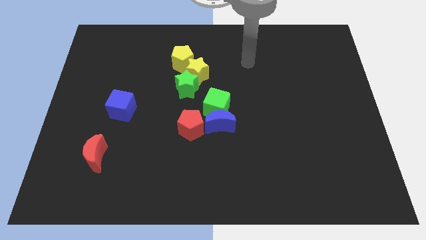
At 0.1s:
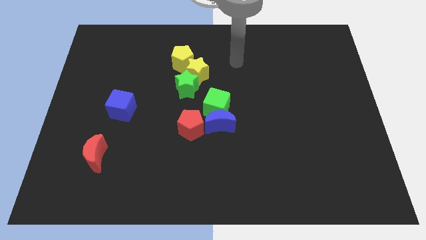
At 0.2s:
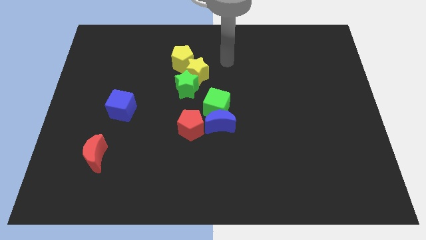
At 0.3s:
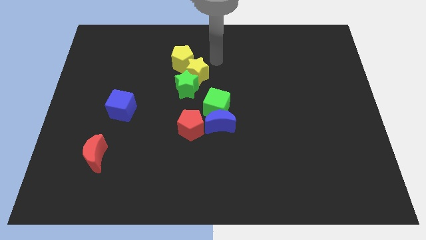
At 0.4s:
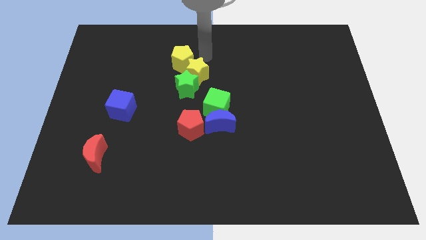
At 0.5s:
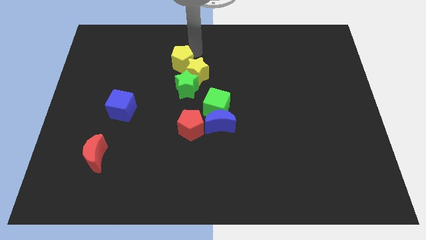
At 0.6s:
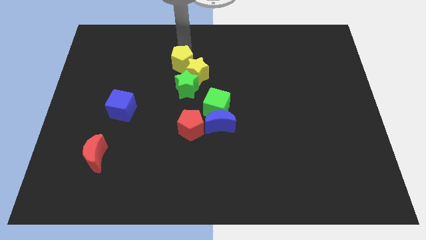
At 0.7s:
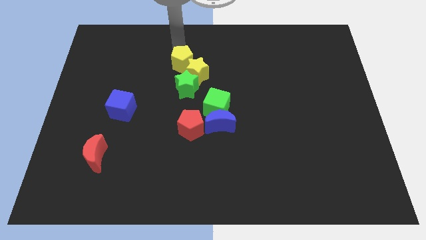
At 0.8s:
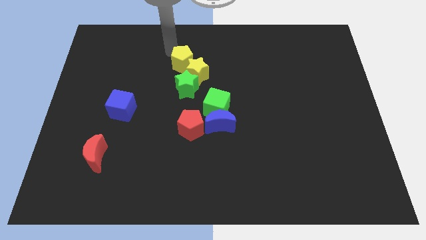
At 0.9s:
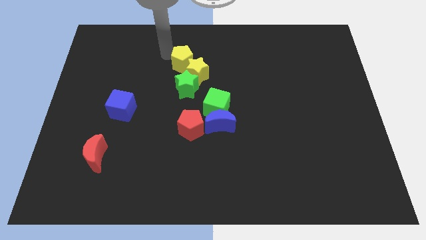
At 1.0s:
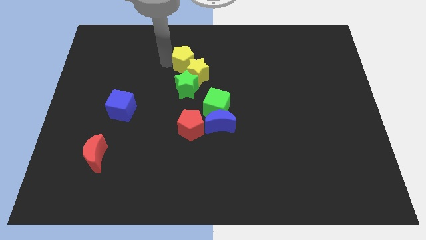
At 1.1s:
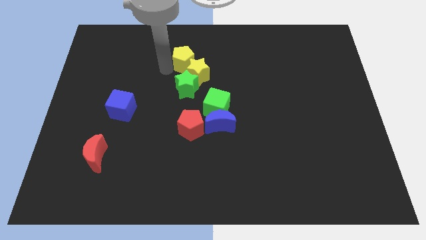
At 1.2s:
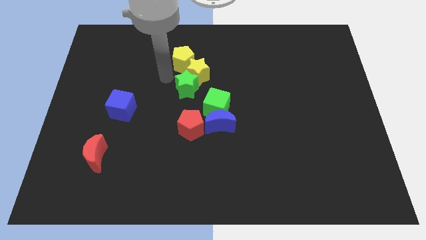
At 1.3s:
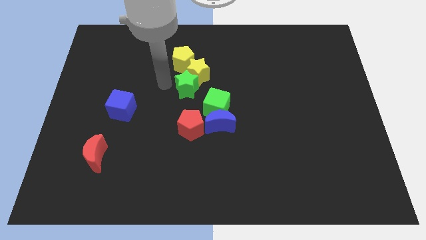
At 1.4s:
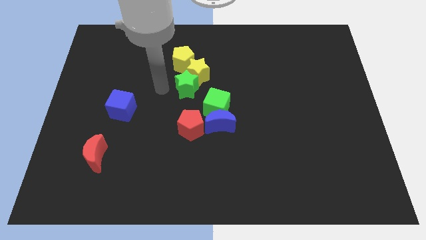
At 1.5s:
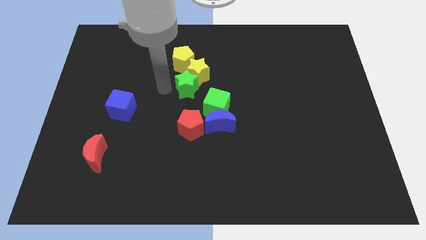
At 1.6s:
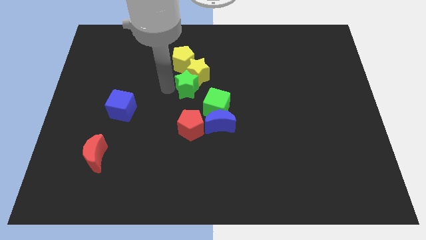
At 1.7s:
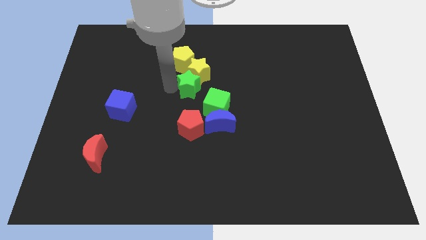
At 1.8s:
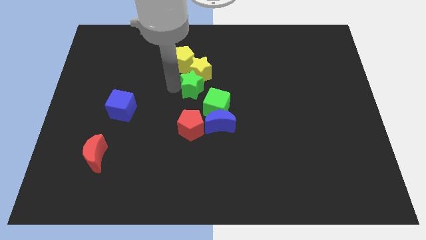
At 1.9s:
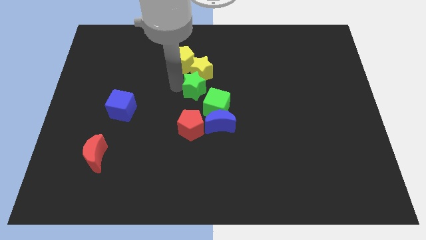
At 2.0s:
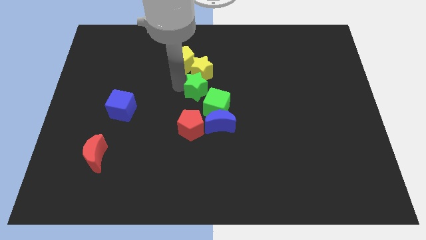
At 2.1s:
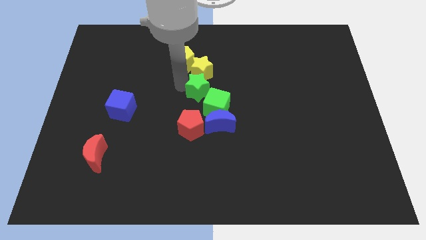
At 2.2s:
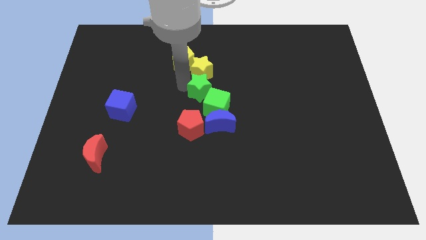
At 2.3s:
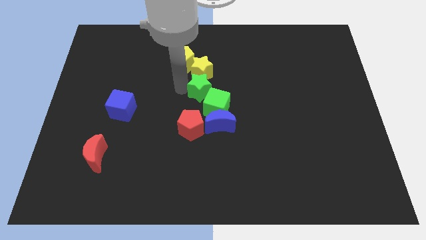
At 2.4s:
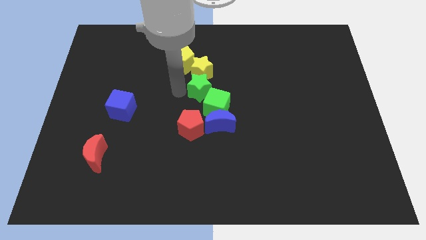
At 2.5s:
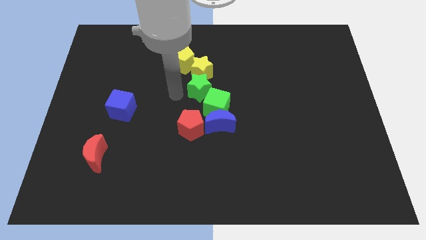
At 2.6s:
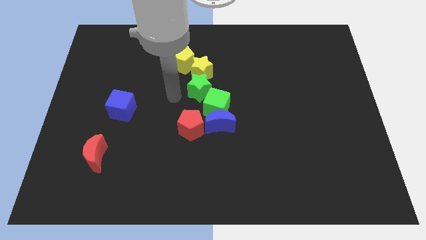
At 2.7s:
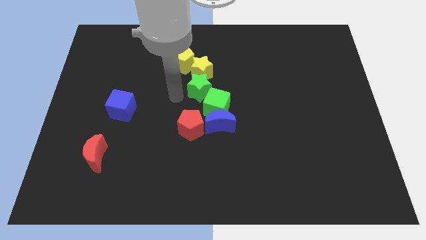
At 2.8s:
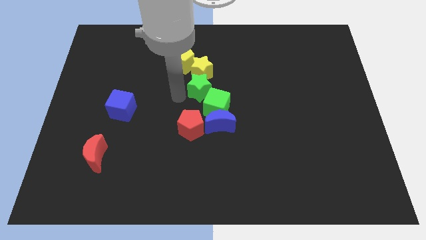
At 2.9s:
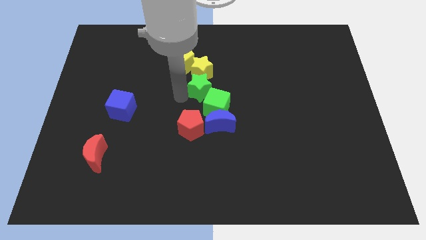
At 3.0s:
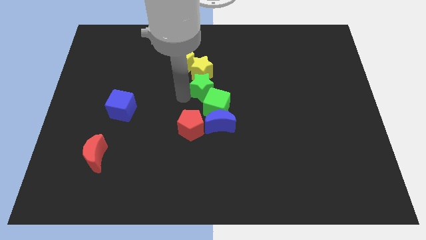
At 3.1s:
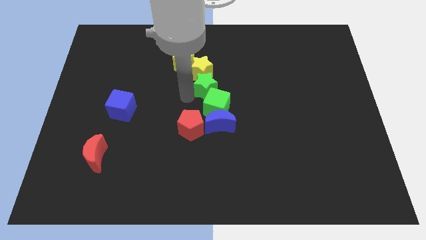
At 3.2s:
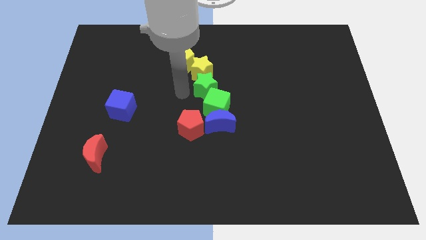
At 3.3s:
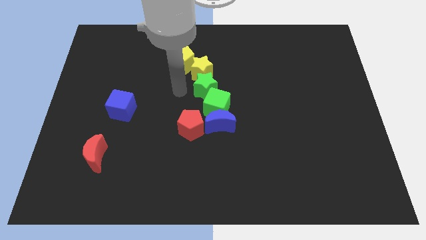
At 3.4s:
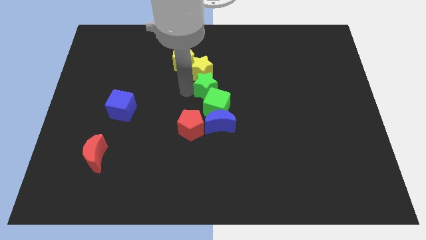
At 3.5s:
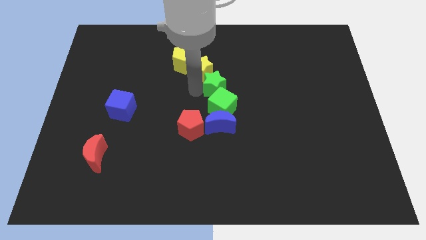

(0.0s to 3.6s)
move the green star a bit right

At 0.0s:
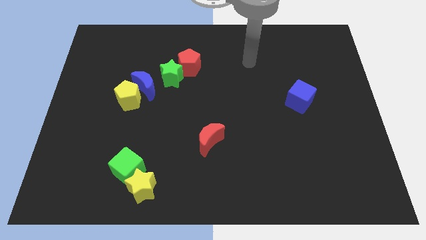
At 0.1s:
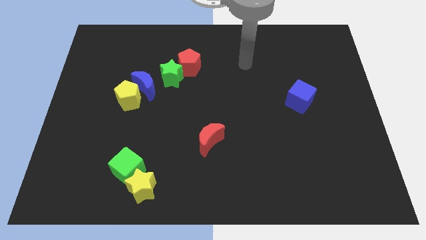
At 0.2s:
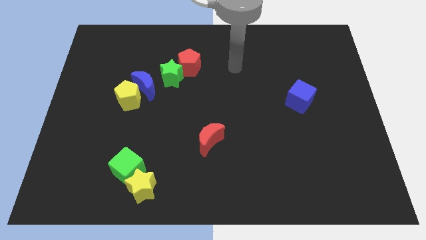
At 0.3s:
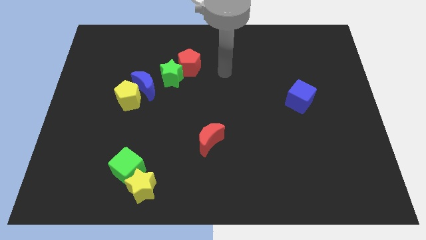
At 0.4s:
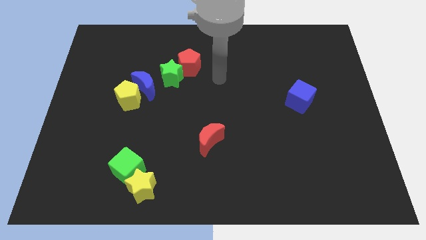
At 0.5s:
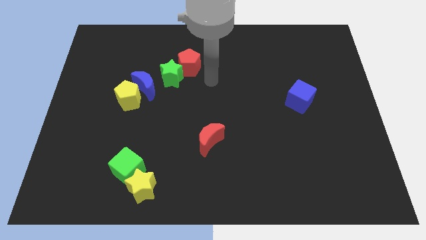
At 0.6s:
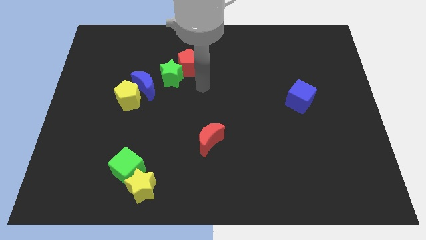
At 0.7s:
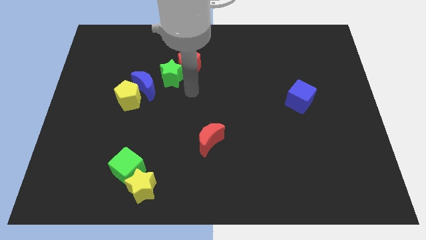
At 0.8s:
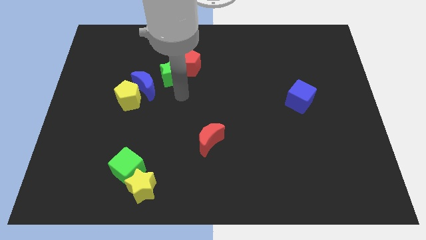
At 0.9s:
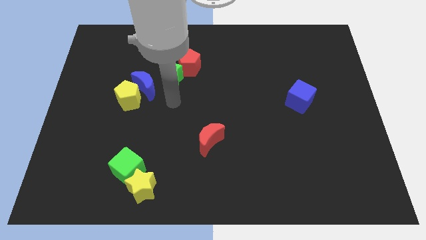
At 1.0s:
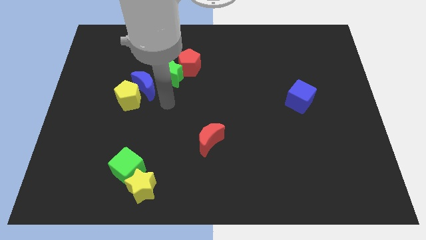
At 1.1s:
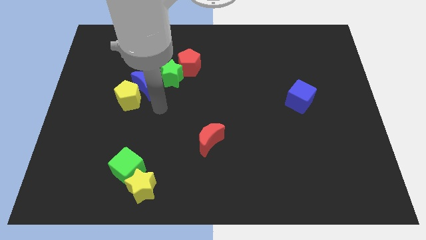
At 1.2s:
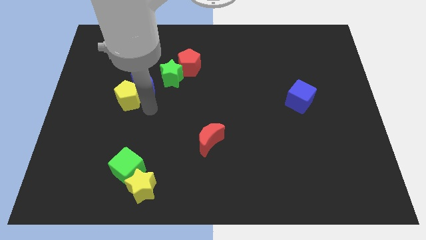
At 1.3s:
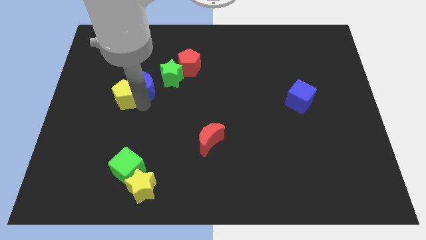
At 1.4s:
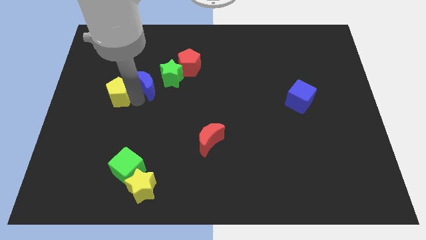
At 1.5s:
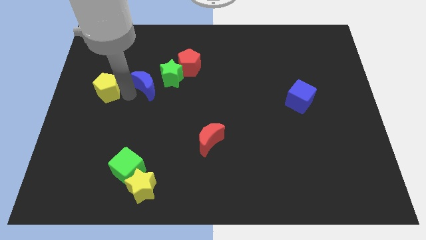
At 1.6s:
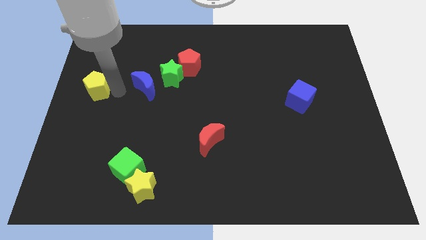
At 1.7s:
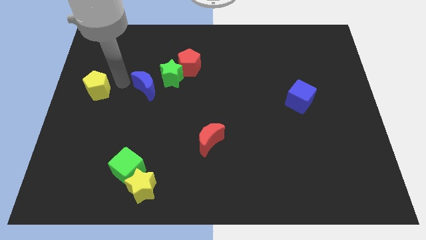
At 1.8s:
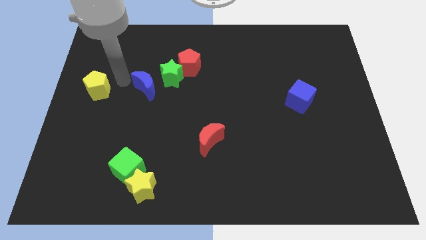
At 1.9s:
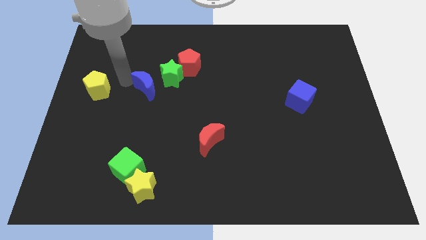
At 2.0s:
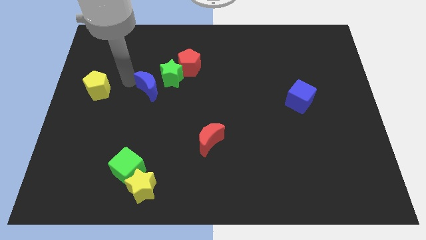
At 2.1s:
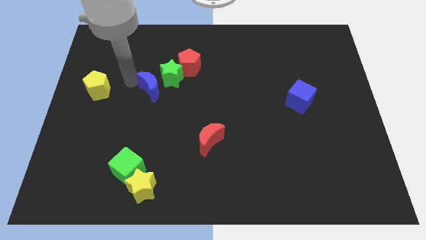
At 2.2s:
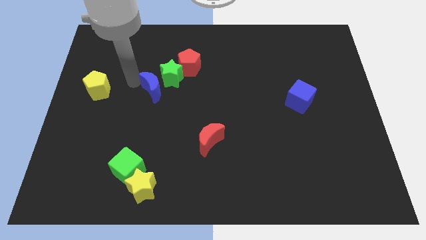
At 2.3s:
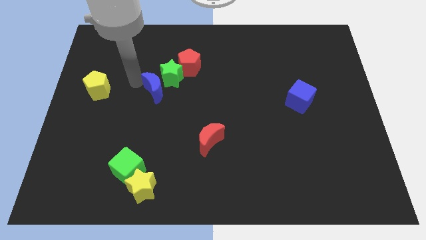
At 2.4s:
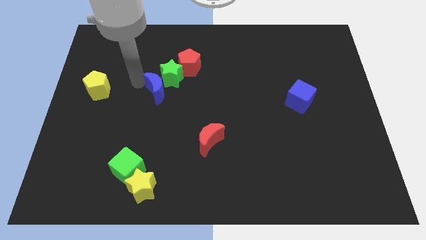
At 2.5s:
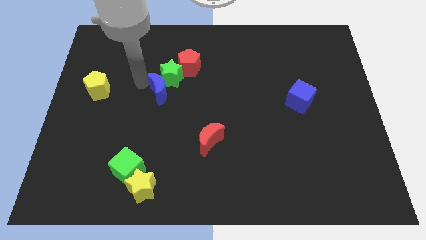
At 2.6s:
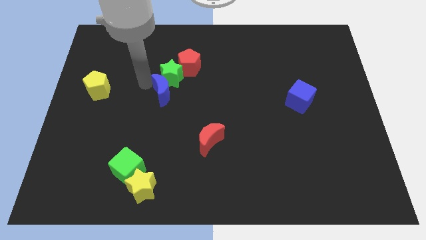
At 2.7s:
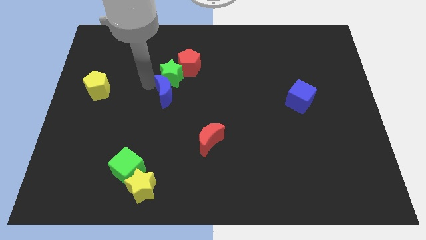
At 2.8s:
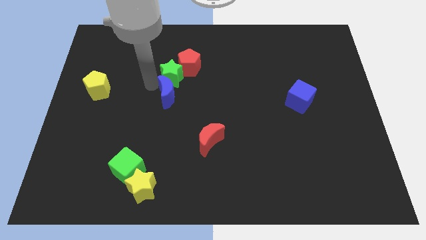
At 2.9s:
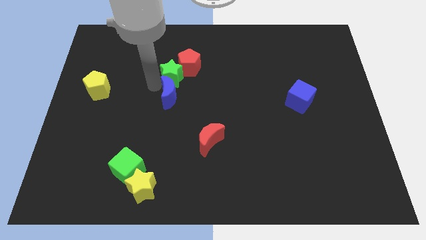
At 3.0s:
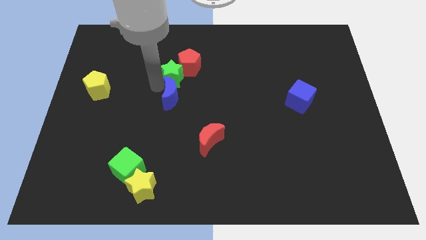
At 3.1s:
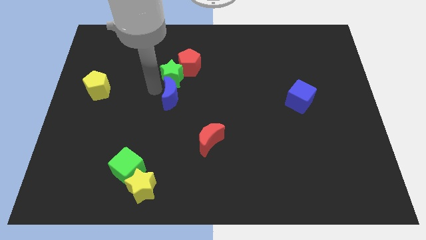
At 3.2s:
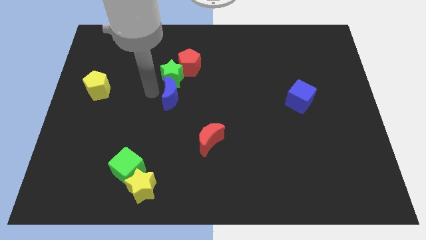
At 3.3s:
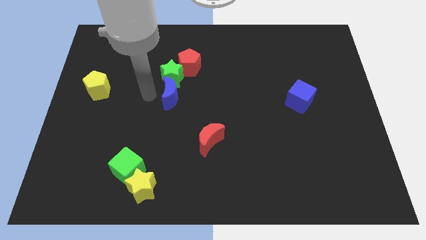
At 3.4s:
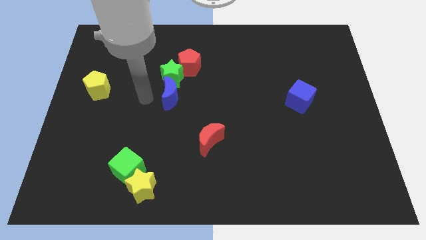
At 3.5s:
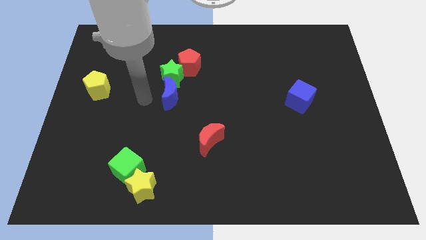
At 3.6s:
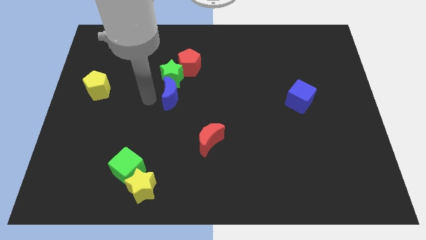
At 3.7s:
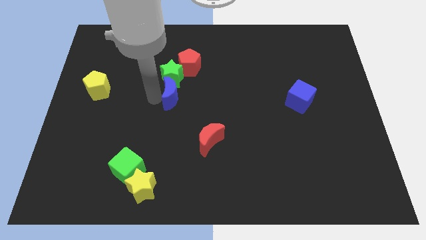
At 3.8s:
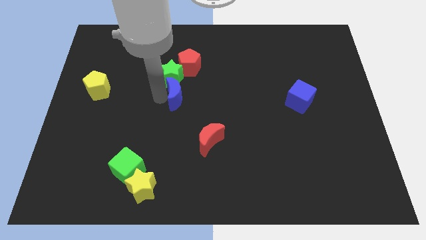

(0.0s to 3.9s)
slide the blue moon to the right a little

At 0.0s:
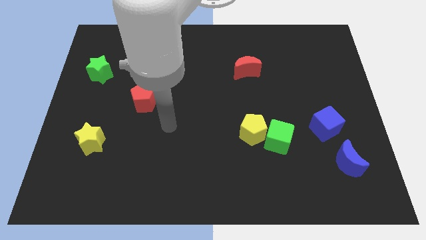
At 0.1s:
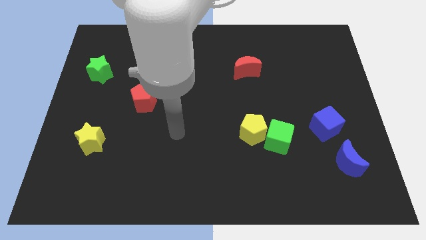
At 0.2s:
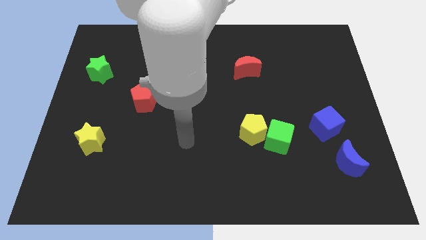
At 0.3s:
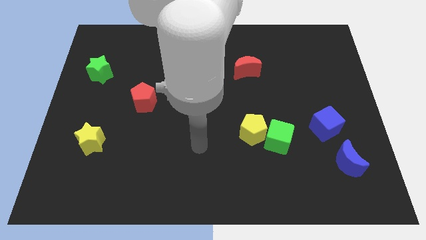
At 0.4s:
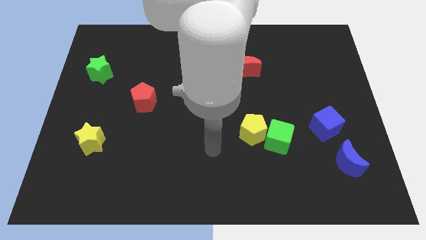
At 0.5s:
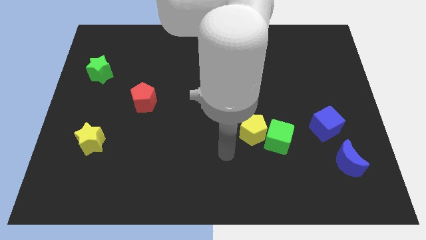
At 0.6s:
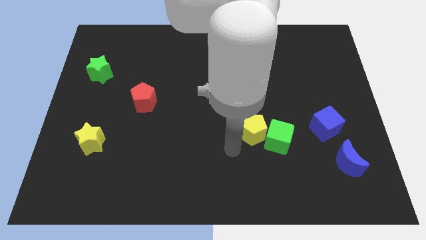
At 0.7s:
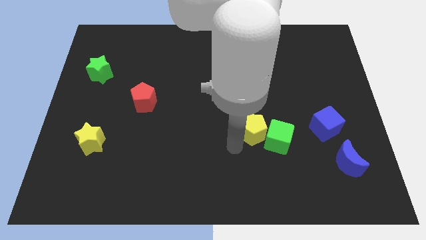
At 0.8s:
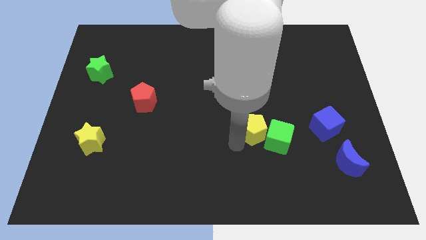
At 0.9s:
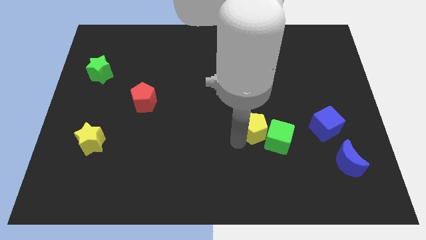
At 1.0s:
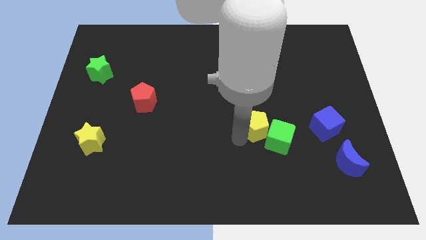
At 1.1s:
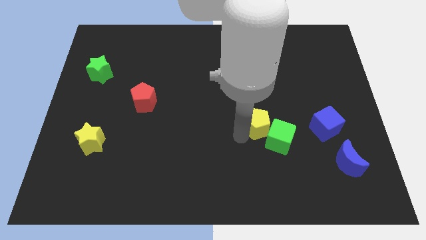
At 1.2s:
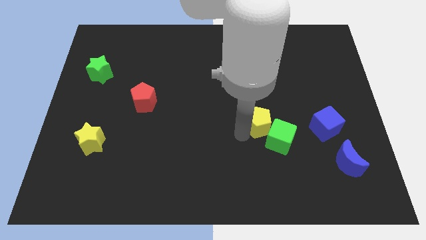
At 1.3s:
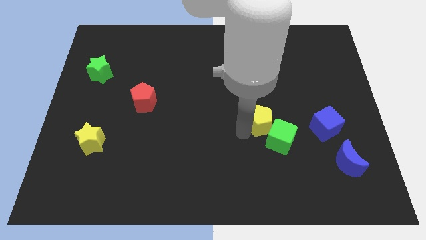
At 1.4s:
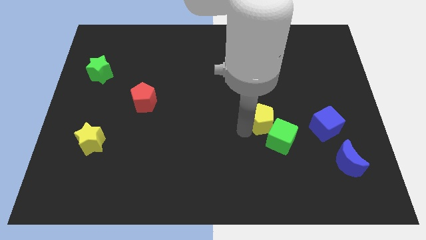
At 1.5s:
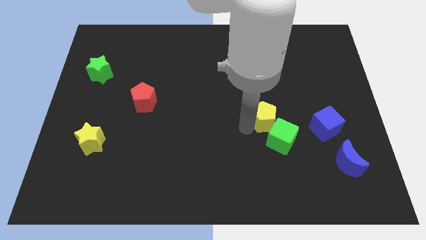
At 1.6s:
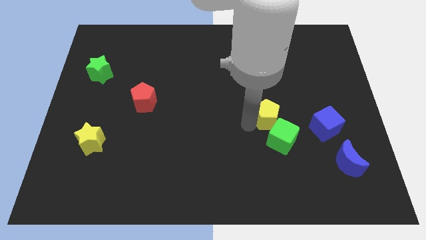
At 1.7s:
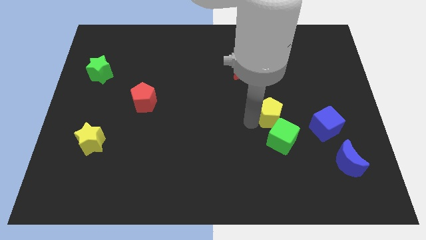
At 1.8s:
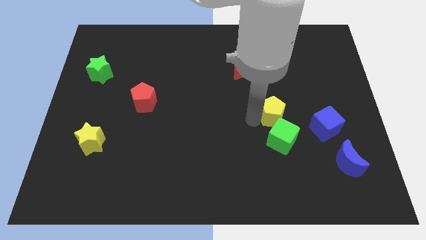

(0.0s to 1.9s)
slightly move the yellow pentagon diagonally upwards and to the right
